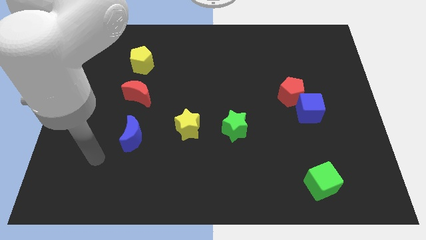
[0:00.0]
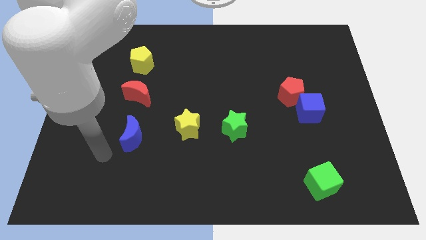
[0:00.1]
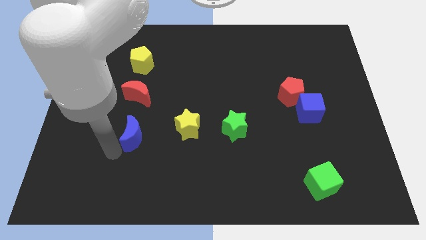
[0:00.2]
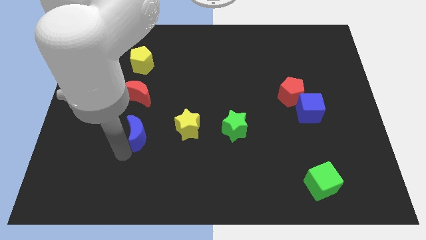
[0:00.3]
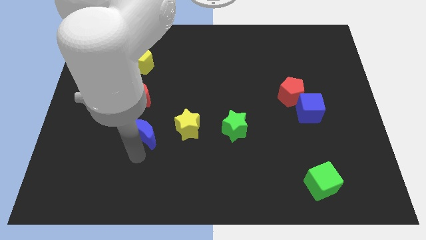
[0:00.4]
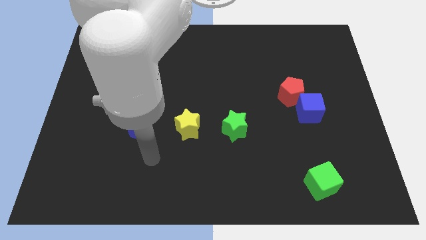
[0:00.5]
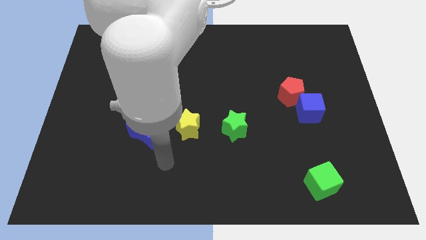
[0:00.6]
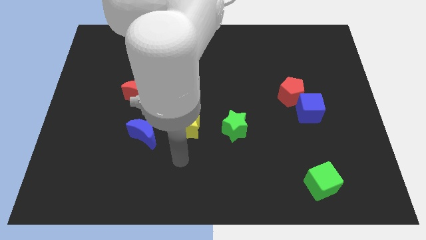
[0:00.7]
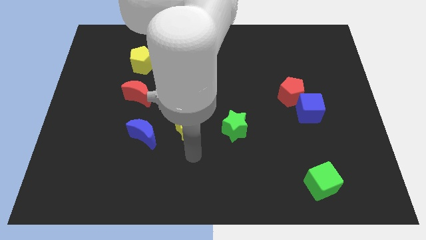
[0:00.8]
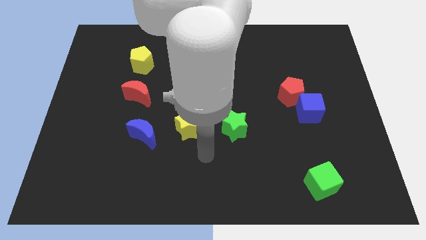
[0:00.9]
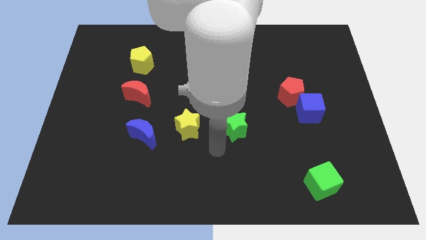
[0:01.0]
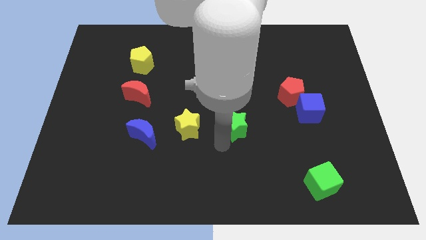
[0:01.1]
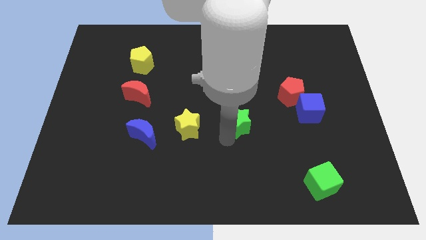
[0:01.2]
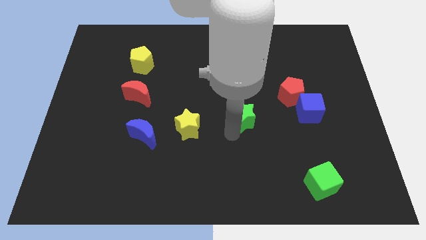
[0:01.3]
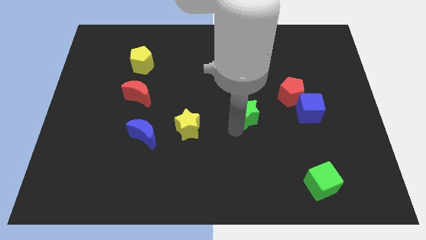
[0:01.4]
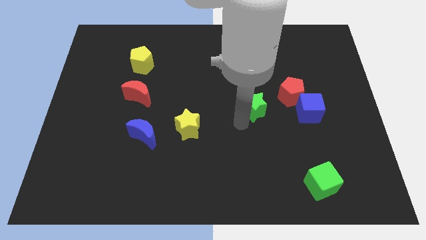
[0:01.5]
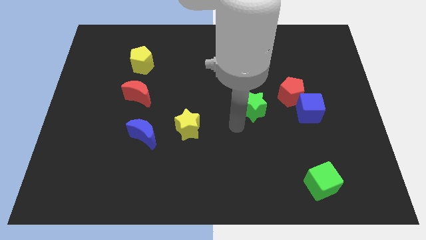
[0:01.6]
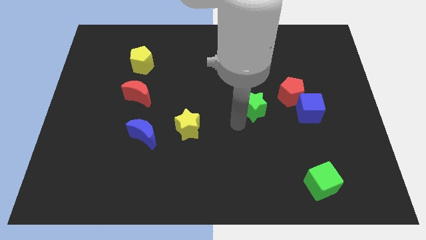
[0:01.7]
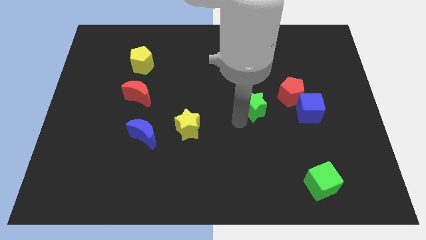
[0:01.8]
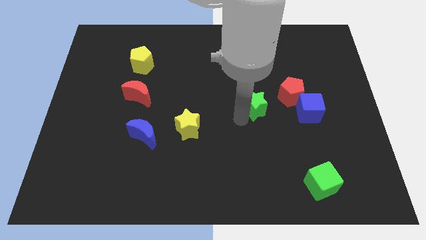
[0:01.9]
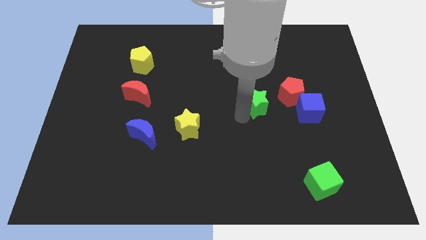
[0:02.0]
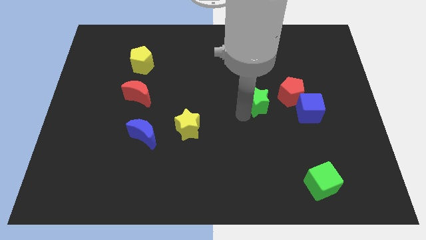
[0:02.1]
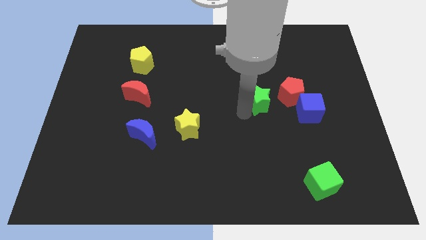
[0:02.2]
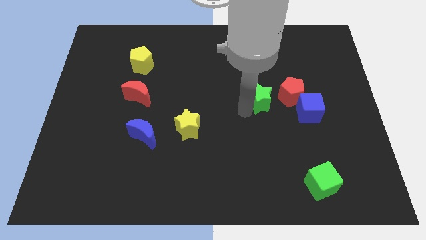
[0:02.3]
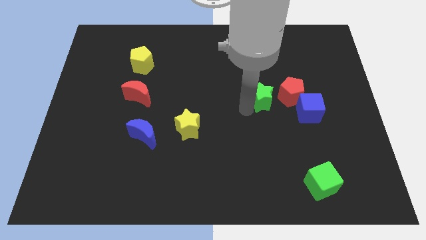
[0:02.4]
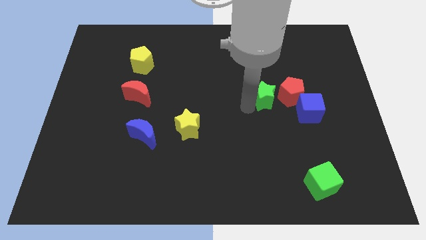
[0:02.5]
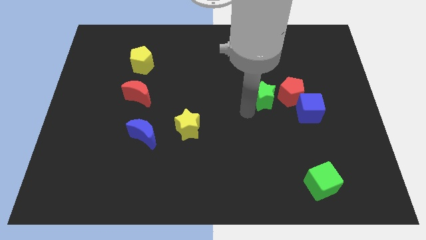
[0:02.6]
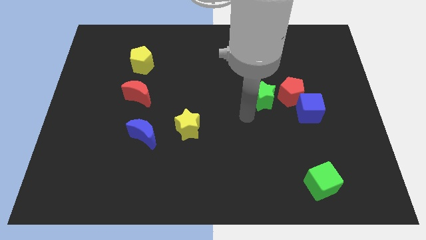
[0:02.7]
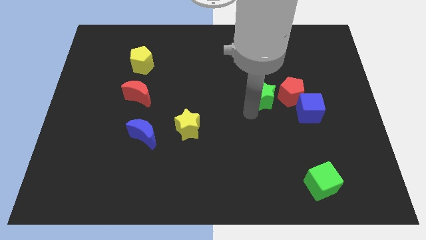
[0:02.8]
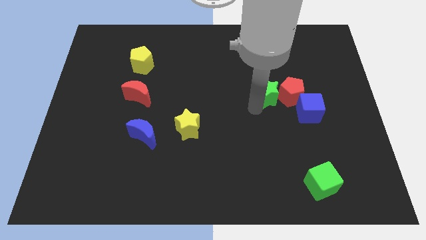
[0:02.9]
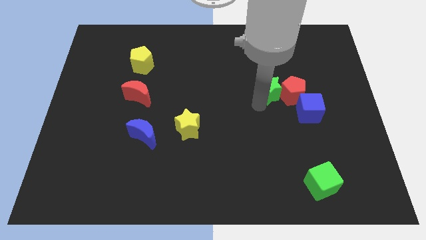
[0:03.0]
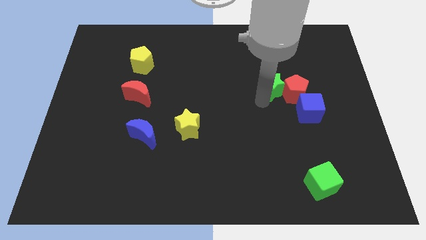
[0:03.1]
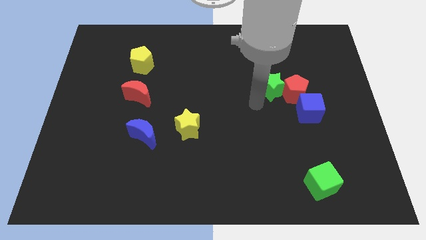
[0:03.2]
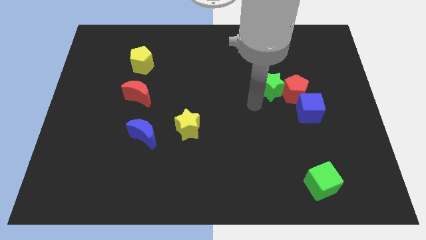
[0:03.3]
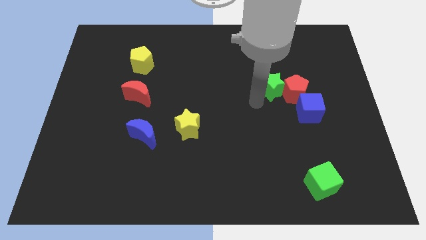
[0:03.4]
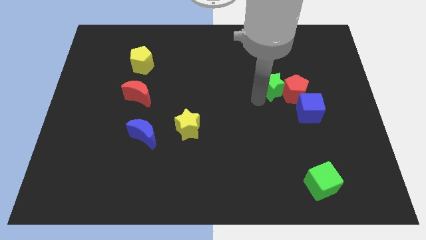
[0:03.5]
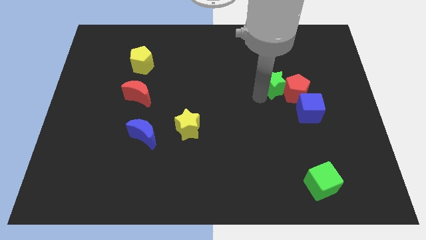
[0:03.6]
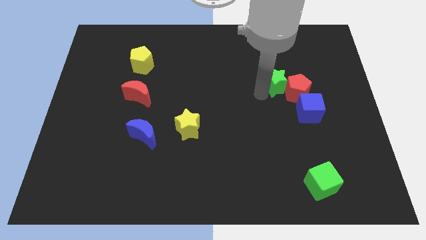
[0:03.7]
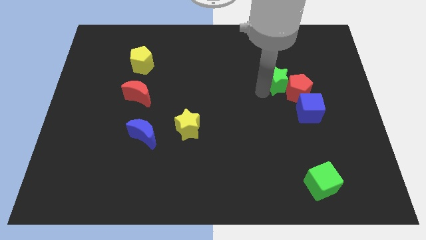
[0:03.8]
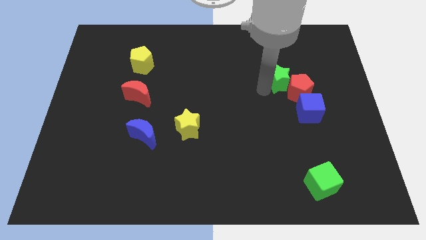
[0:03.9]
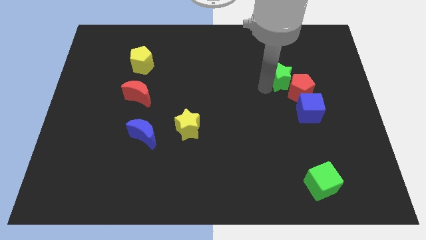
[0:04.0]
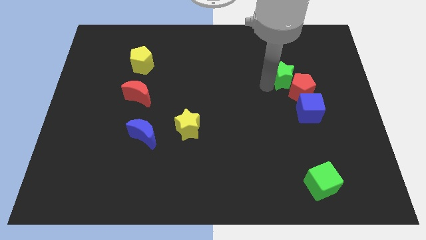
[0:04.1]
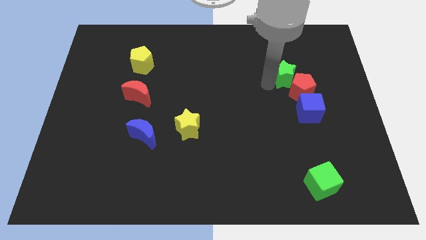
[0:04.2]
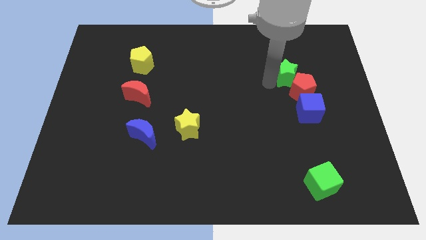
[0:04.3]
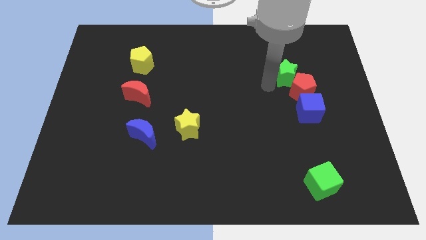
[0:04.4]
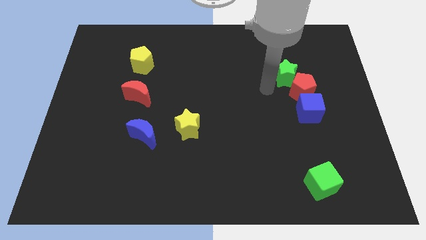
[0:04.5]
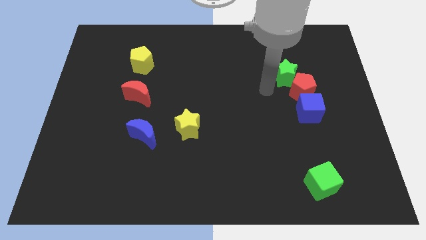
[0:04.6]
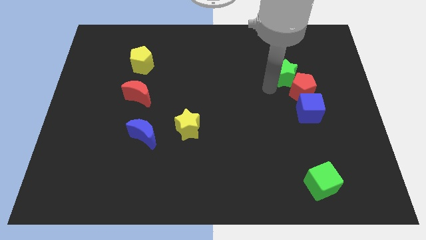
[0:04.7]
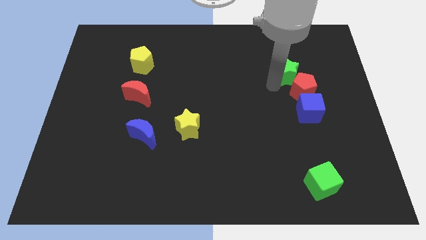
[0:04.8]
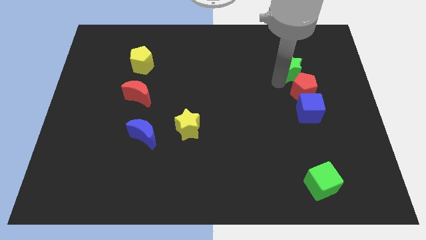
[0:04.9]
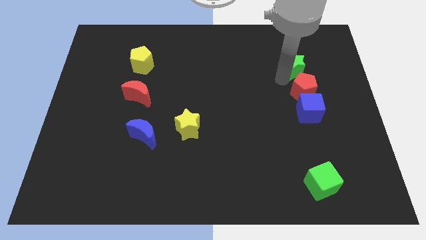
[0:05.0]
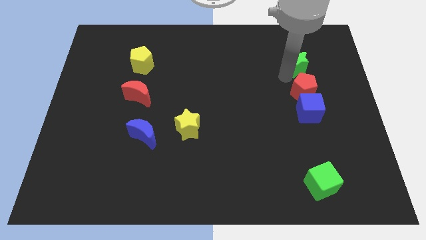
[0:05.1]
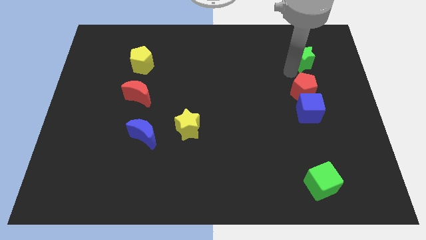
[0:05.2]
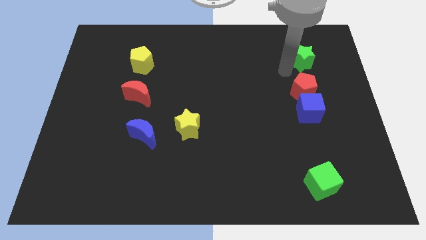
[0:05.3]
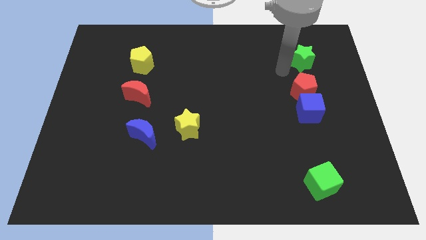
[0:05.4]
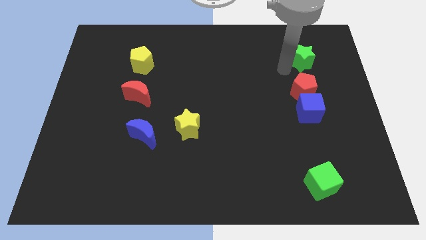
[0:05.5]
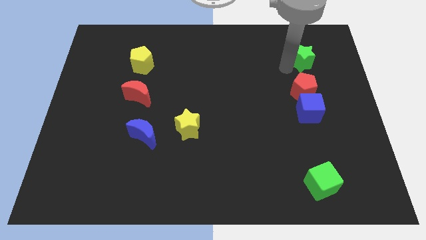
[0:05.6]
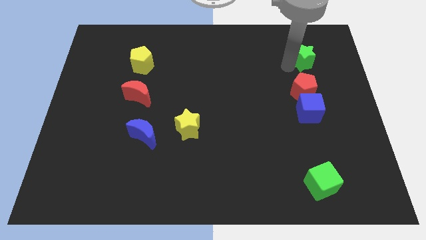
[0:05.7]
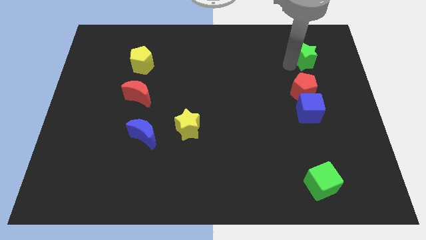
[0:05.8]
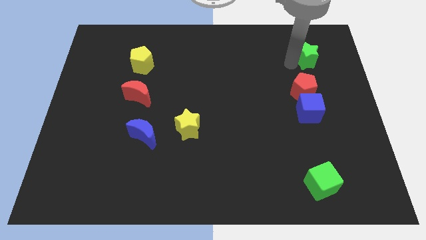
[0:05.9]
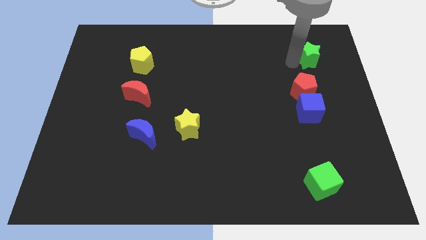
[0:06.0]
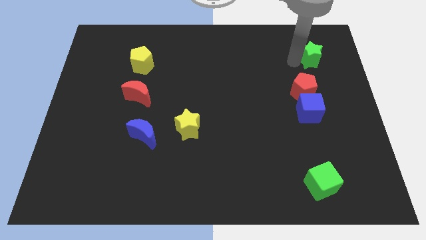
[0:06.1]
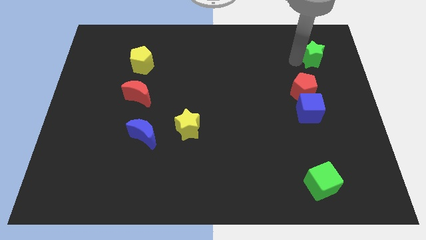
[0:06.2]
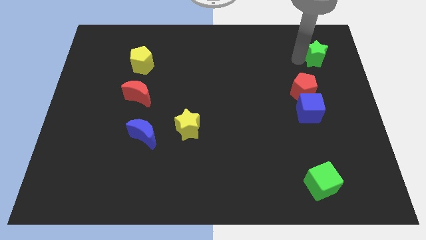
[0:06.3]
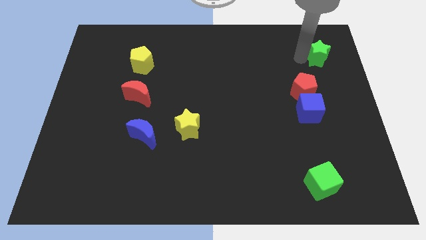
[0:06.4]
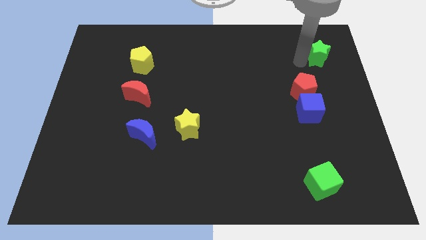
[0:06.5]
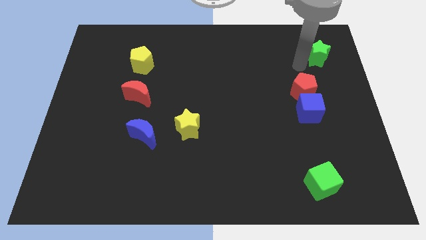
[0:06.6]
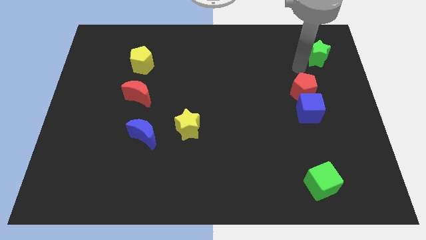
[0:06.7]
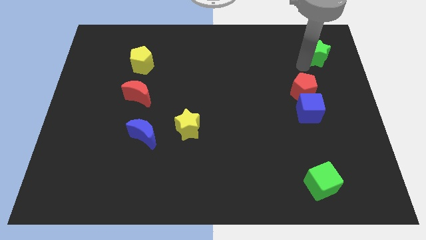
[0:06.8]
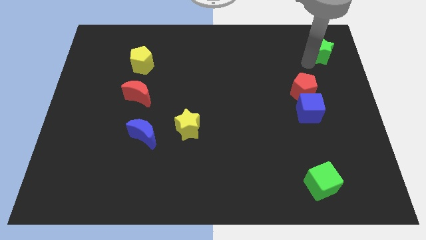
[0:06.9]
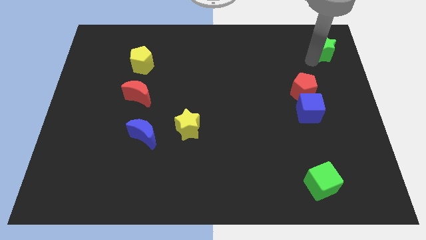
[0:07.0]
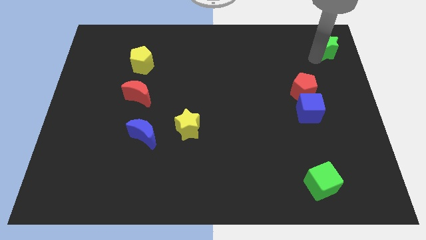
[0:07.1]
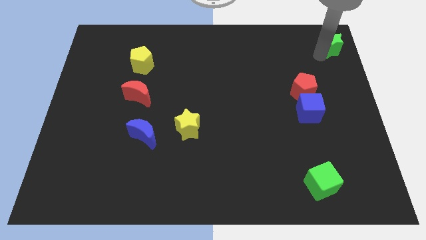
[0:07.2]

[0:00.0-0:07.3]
push the green star to the top right corner
